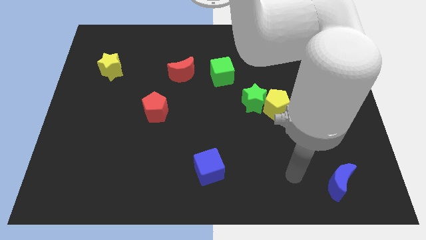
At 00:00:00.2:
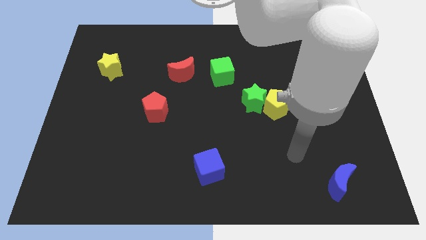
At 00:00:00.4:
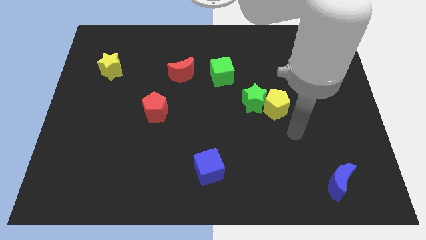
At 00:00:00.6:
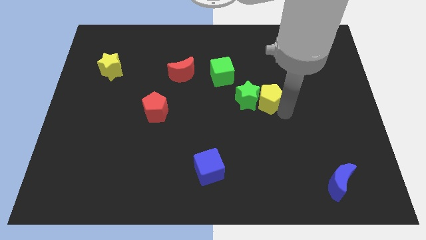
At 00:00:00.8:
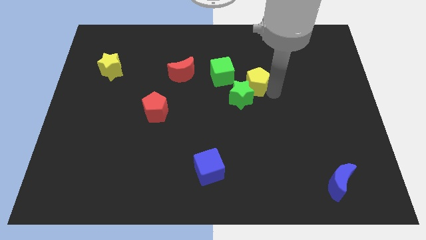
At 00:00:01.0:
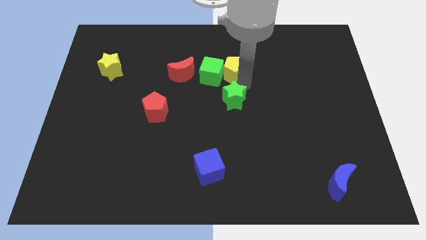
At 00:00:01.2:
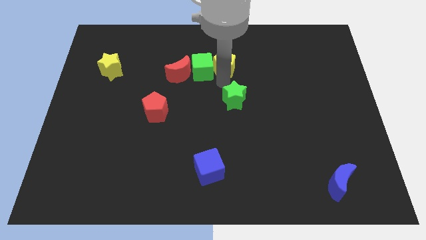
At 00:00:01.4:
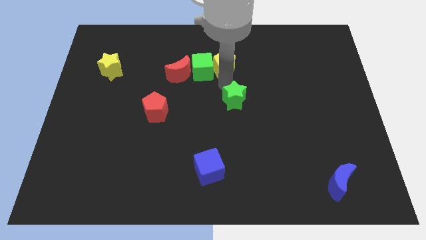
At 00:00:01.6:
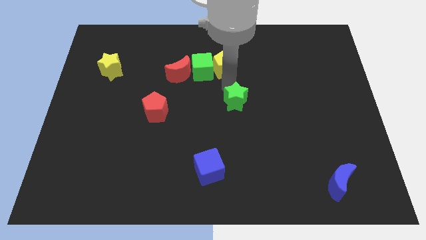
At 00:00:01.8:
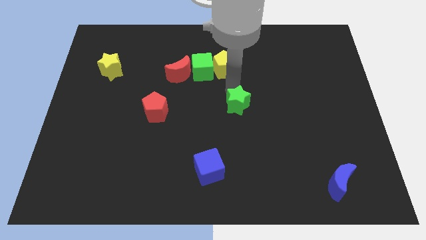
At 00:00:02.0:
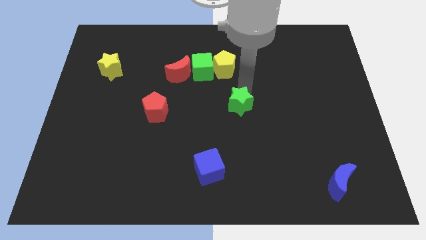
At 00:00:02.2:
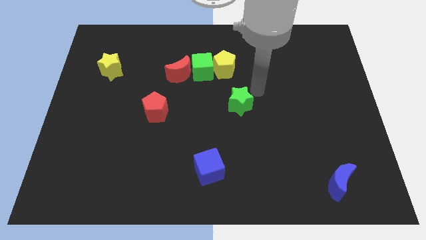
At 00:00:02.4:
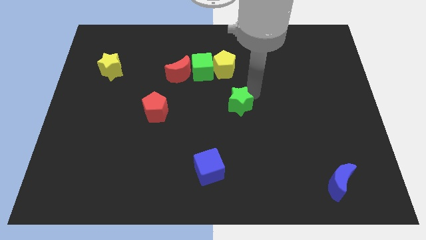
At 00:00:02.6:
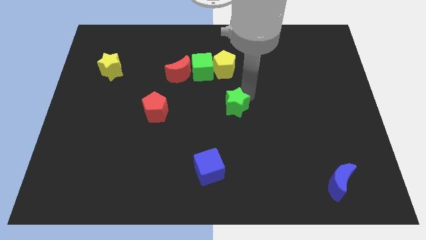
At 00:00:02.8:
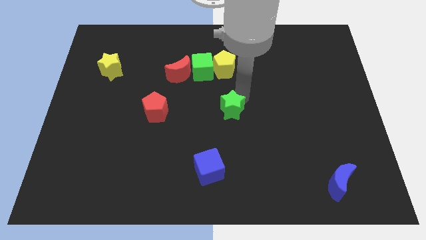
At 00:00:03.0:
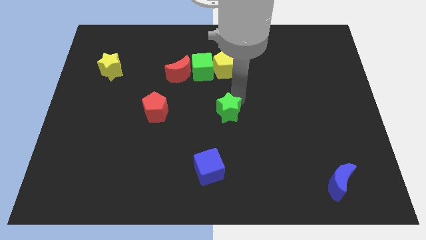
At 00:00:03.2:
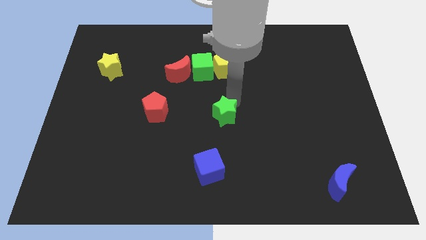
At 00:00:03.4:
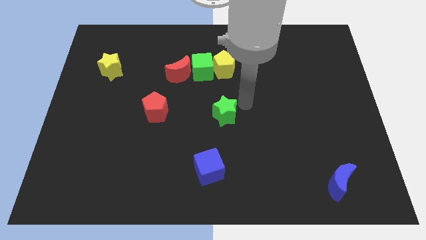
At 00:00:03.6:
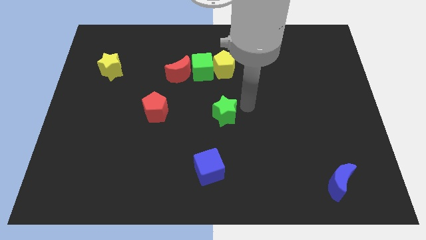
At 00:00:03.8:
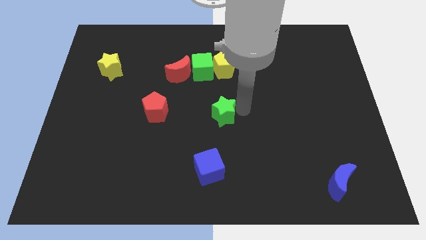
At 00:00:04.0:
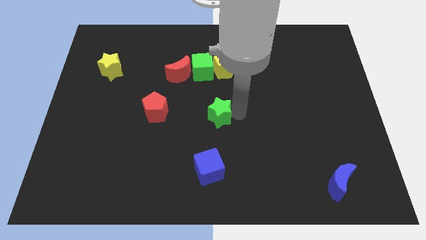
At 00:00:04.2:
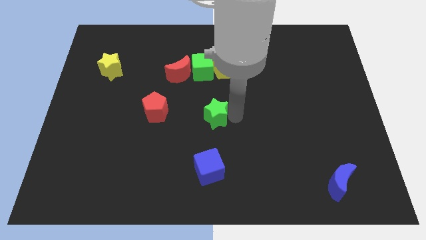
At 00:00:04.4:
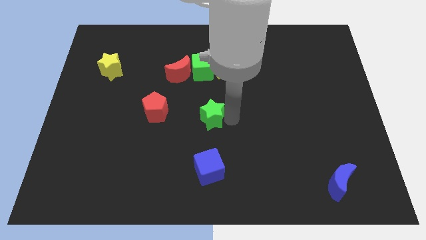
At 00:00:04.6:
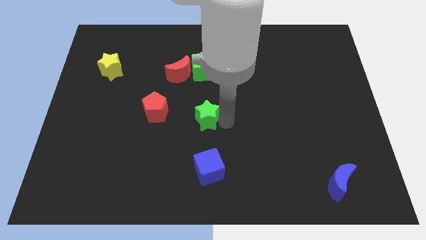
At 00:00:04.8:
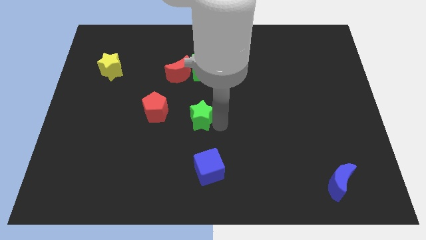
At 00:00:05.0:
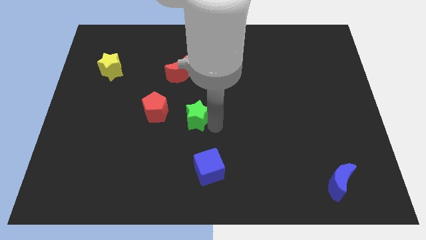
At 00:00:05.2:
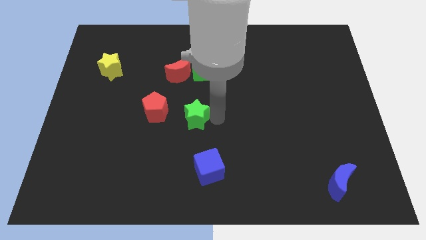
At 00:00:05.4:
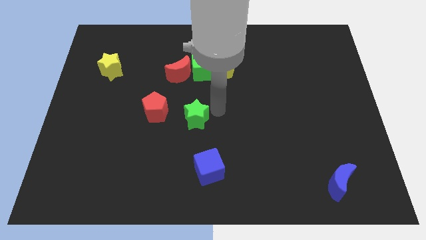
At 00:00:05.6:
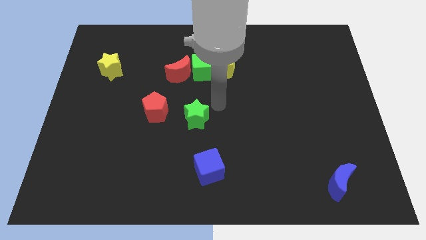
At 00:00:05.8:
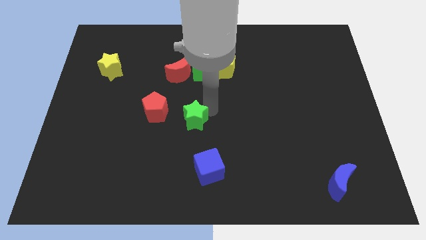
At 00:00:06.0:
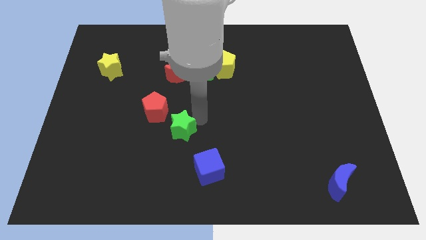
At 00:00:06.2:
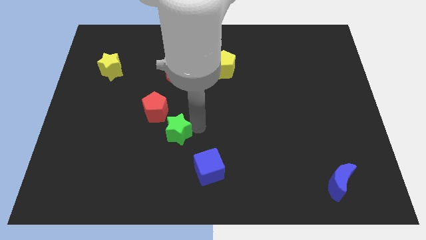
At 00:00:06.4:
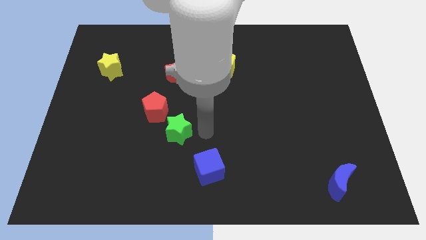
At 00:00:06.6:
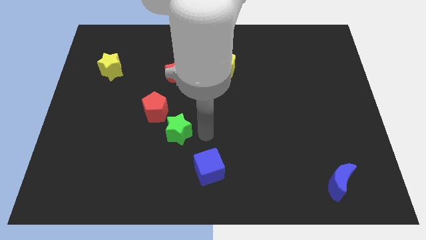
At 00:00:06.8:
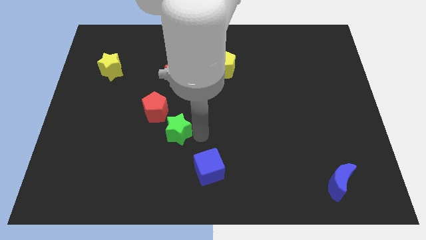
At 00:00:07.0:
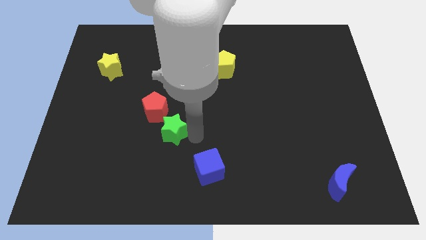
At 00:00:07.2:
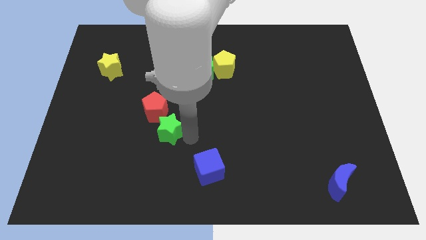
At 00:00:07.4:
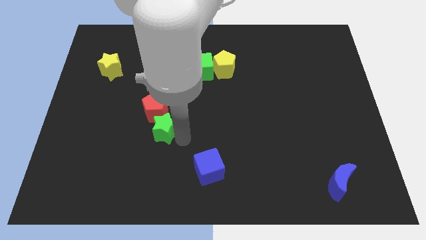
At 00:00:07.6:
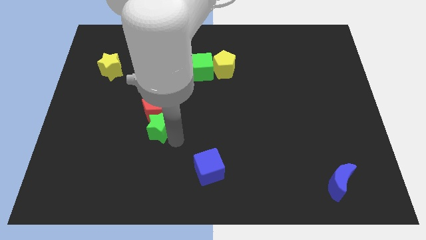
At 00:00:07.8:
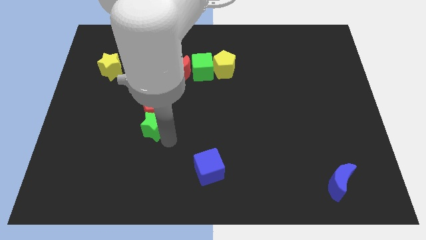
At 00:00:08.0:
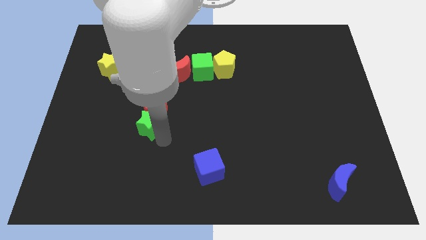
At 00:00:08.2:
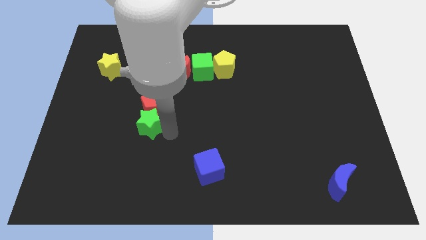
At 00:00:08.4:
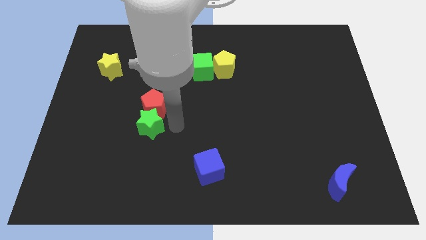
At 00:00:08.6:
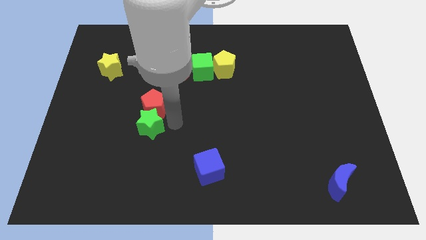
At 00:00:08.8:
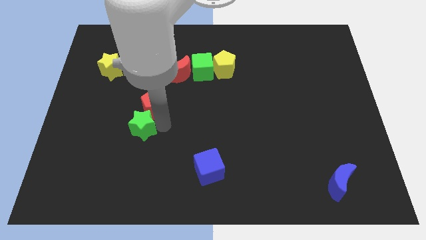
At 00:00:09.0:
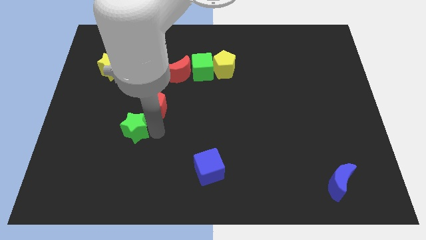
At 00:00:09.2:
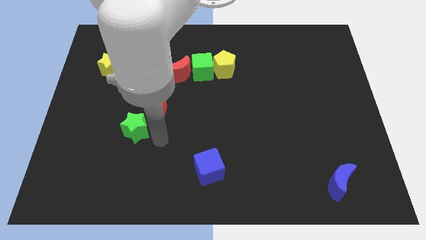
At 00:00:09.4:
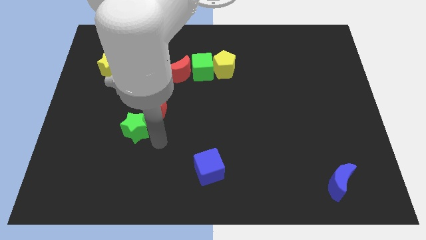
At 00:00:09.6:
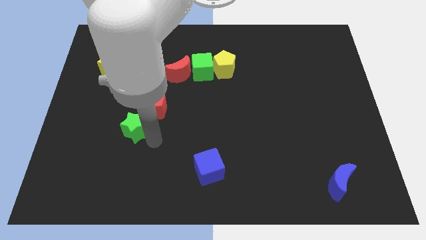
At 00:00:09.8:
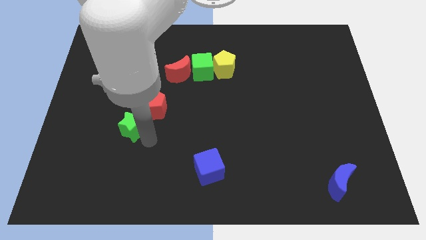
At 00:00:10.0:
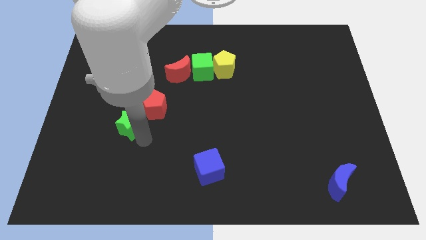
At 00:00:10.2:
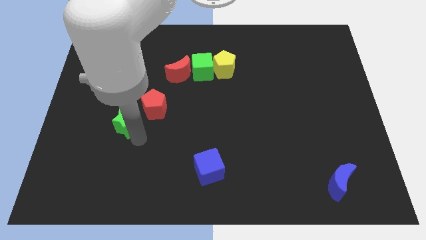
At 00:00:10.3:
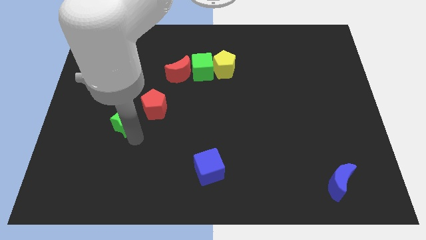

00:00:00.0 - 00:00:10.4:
move the green star just left of the red pentagon

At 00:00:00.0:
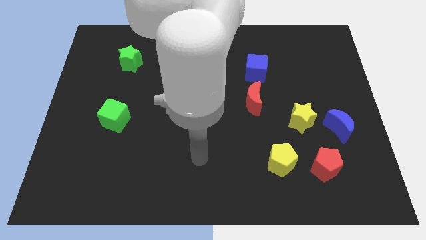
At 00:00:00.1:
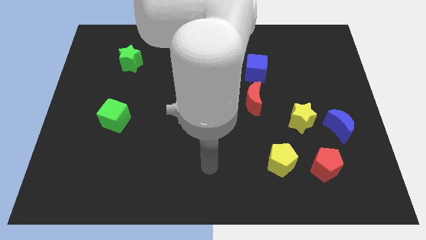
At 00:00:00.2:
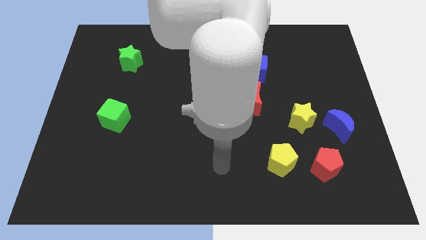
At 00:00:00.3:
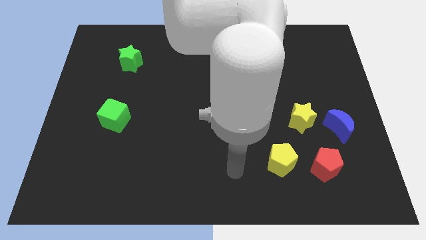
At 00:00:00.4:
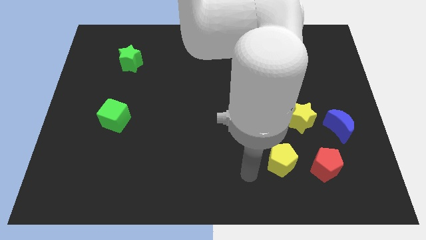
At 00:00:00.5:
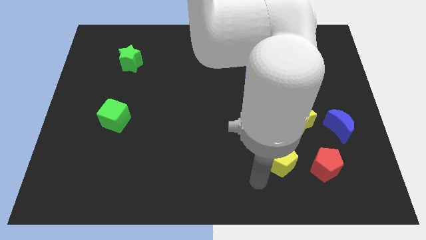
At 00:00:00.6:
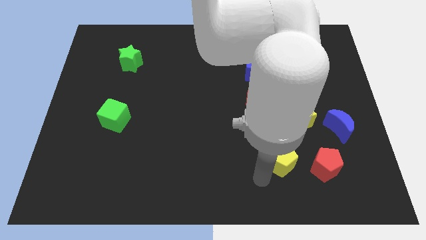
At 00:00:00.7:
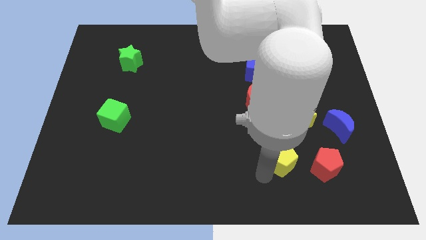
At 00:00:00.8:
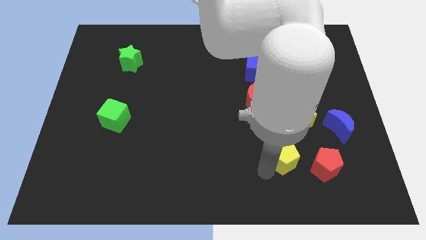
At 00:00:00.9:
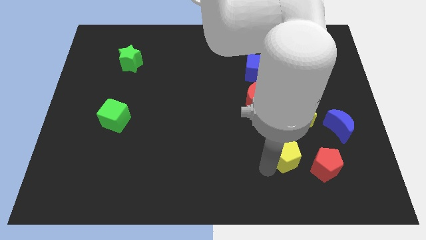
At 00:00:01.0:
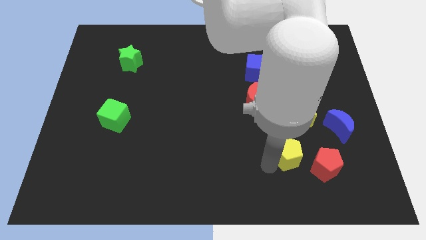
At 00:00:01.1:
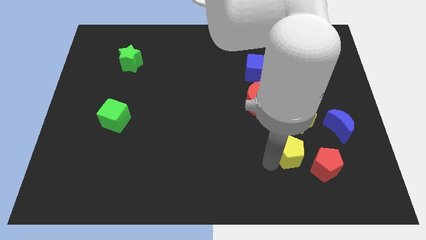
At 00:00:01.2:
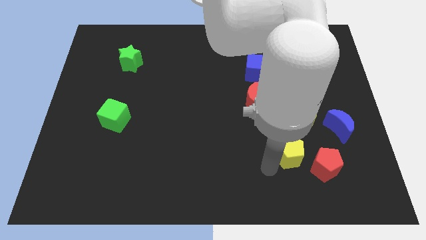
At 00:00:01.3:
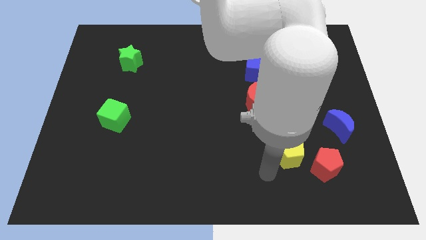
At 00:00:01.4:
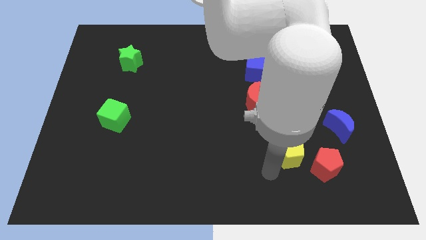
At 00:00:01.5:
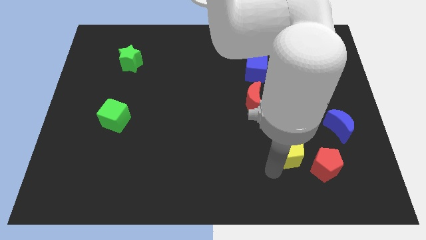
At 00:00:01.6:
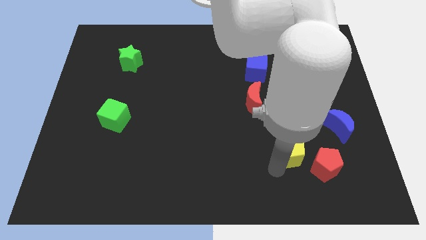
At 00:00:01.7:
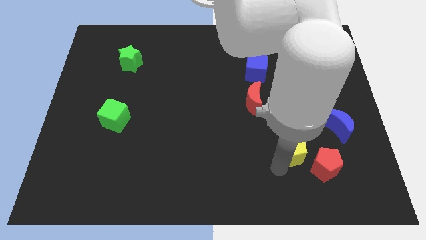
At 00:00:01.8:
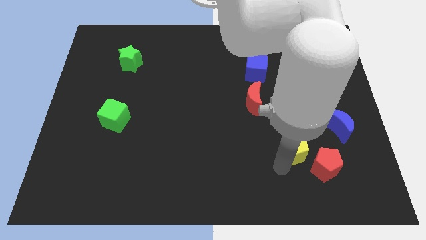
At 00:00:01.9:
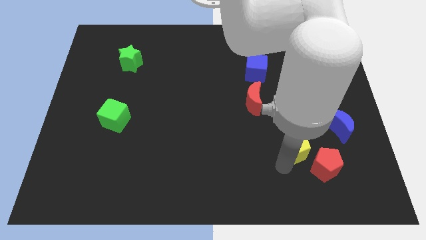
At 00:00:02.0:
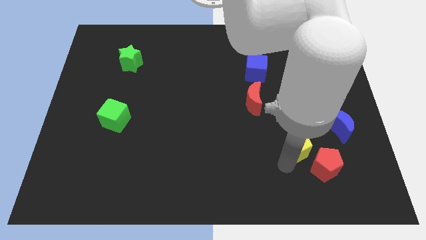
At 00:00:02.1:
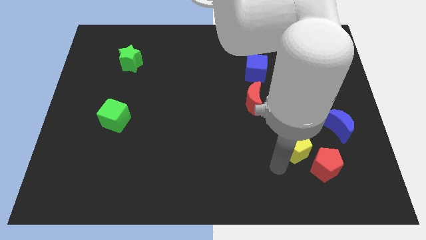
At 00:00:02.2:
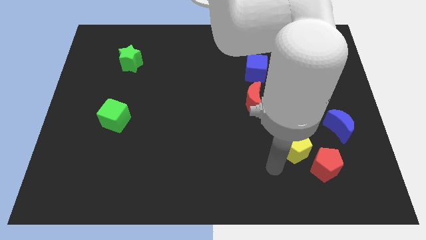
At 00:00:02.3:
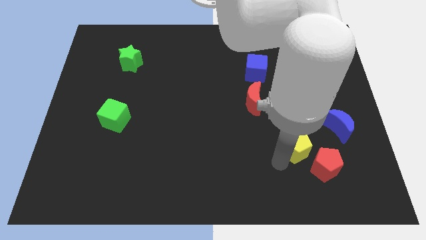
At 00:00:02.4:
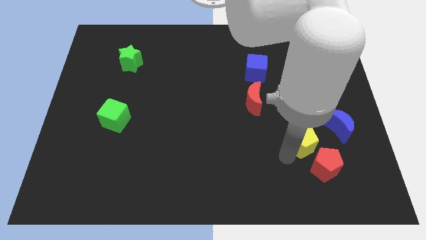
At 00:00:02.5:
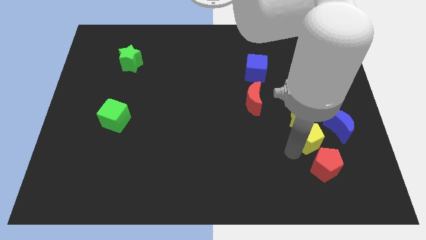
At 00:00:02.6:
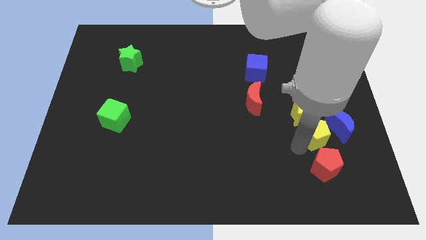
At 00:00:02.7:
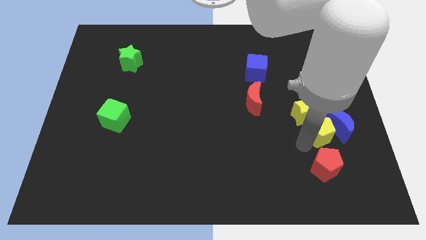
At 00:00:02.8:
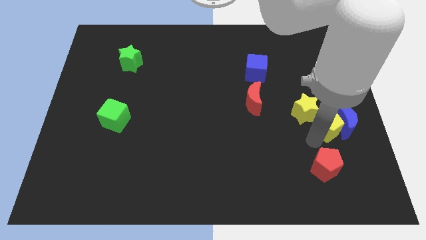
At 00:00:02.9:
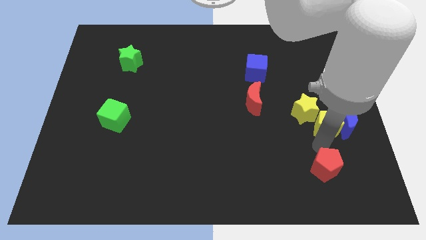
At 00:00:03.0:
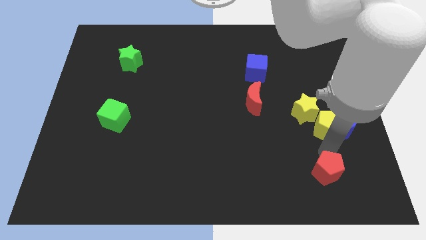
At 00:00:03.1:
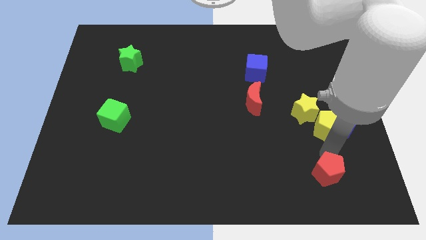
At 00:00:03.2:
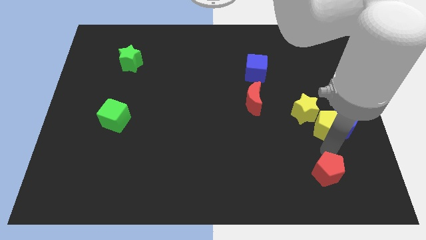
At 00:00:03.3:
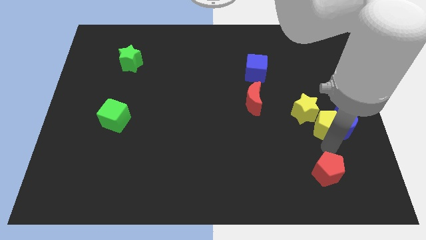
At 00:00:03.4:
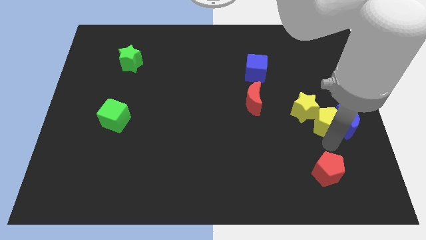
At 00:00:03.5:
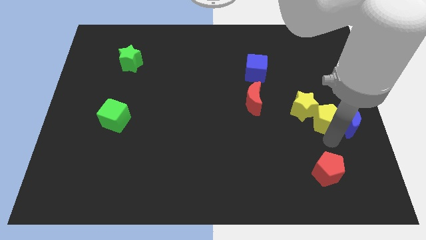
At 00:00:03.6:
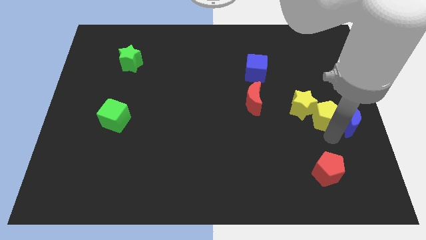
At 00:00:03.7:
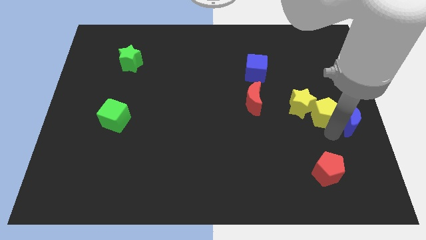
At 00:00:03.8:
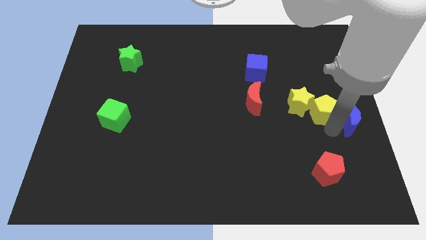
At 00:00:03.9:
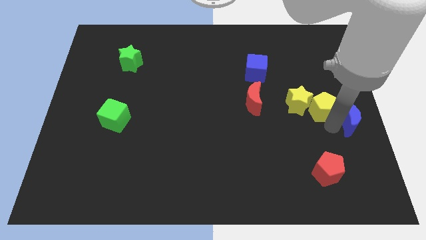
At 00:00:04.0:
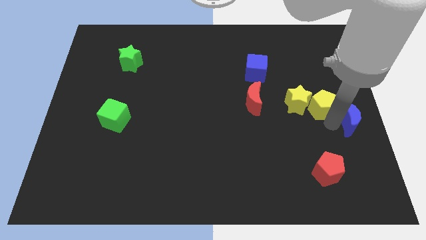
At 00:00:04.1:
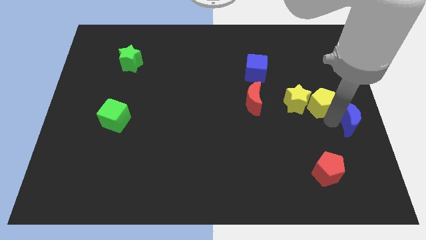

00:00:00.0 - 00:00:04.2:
put the yellow pentagon to the top right side of the yellow star
